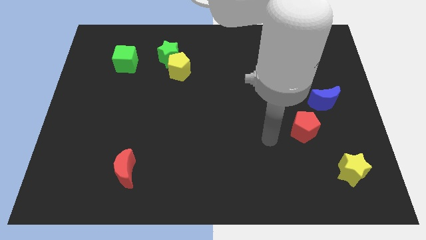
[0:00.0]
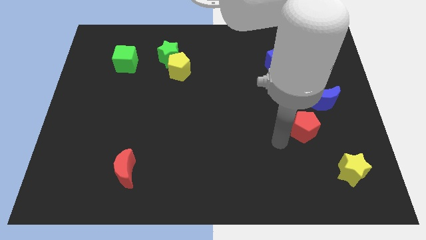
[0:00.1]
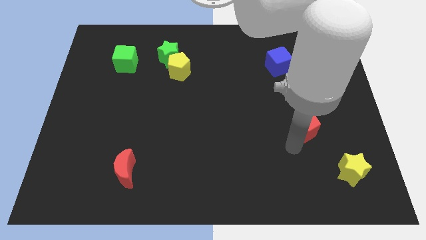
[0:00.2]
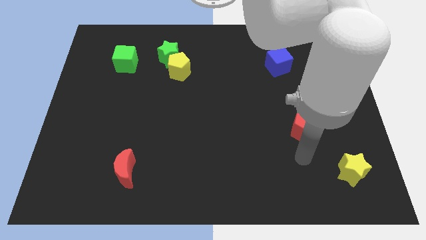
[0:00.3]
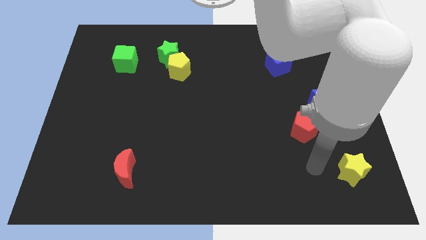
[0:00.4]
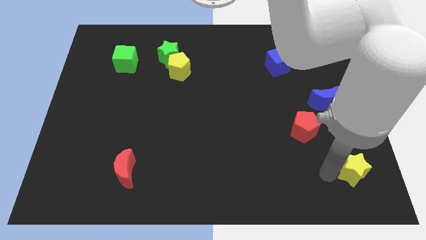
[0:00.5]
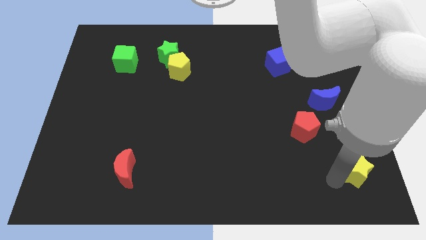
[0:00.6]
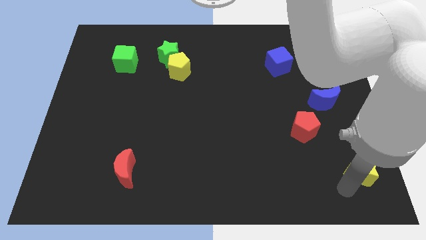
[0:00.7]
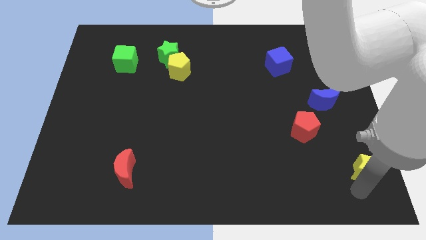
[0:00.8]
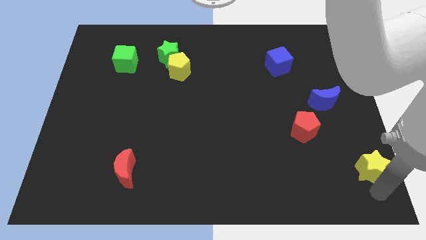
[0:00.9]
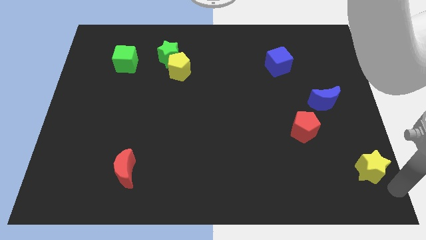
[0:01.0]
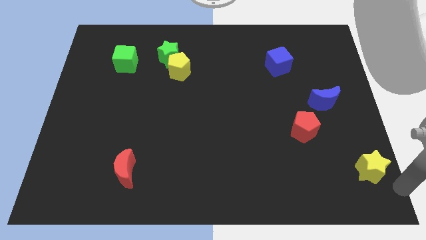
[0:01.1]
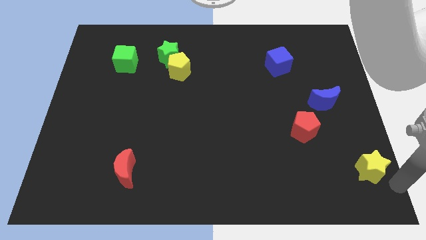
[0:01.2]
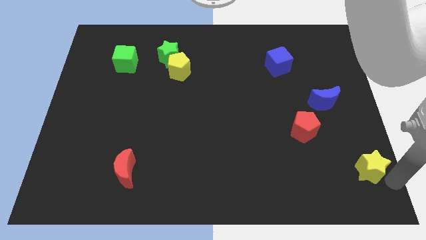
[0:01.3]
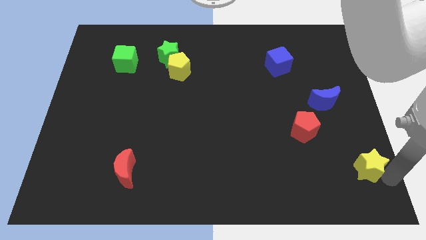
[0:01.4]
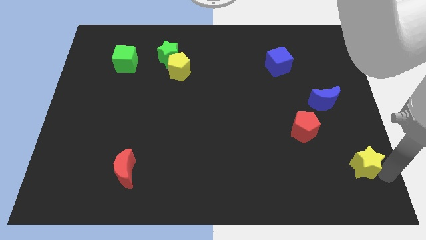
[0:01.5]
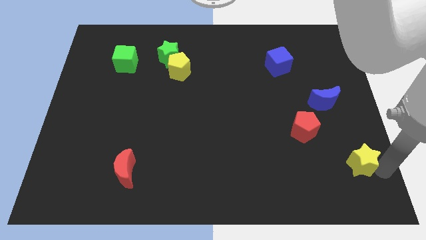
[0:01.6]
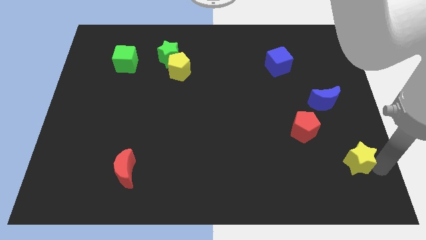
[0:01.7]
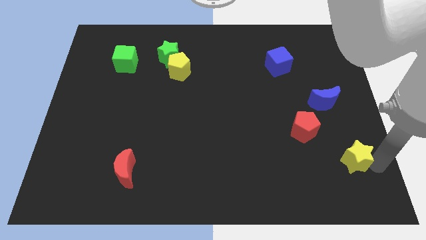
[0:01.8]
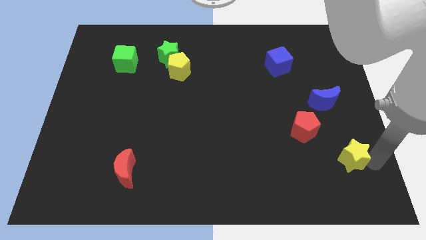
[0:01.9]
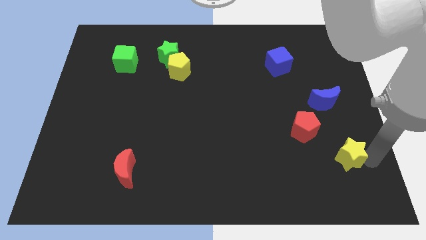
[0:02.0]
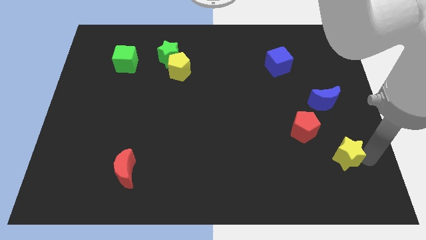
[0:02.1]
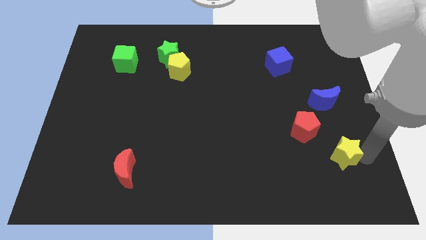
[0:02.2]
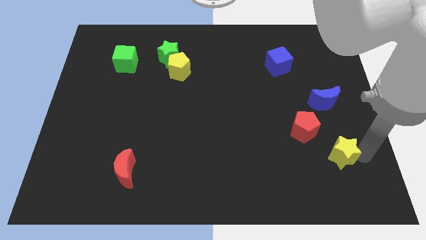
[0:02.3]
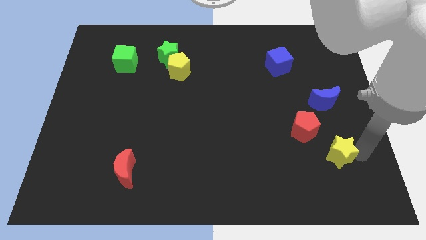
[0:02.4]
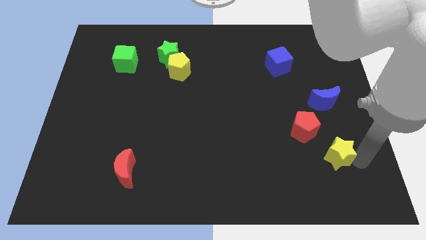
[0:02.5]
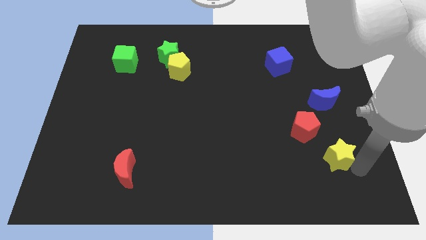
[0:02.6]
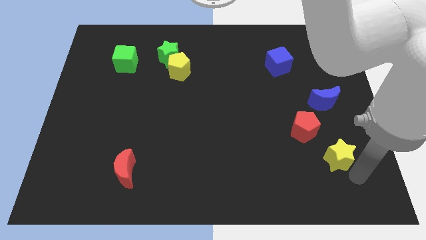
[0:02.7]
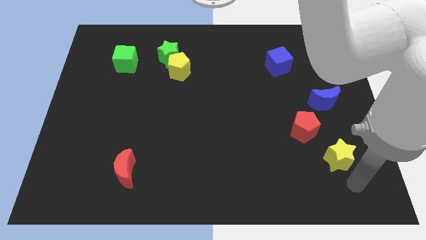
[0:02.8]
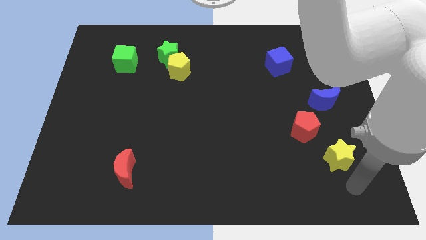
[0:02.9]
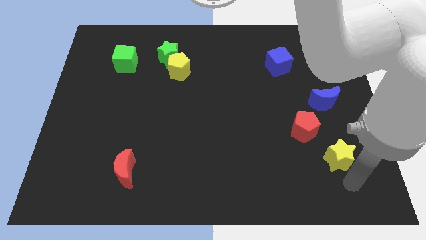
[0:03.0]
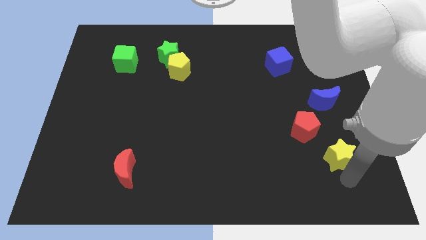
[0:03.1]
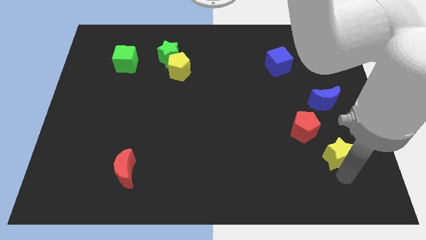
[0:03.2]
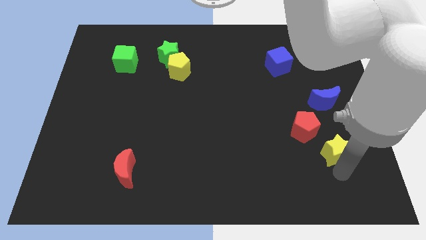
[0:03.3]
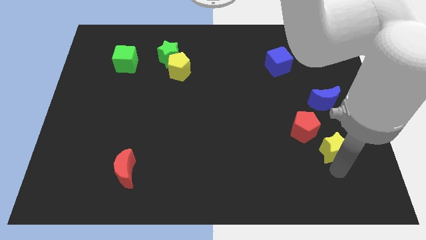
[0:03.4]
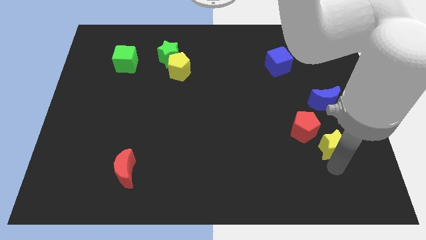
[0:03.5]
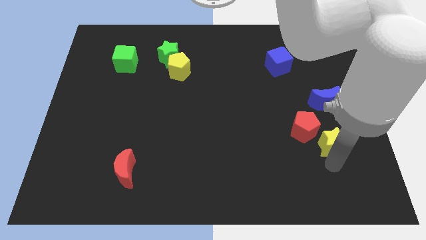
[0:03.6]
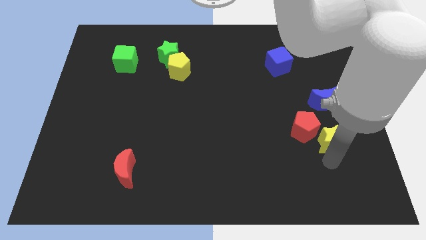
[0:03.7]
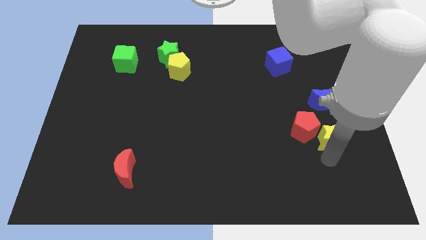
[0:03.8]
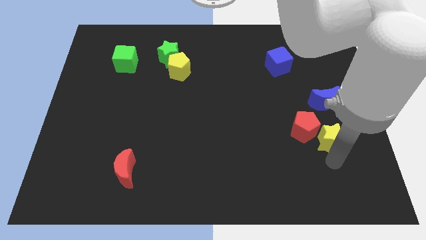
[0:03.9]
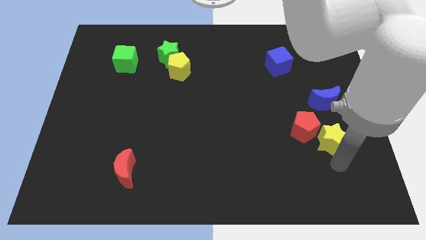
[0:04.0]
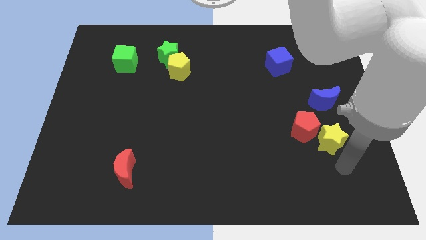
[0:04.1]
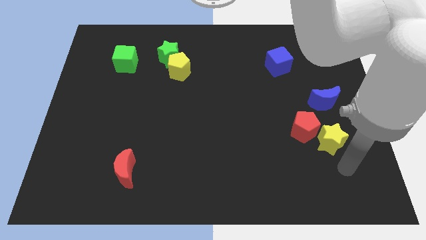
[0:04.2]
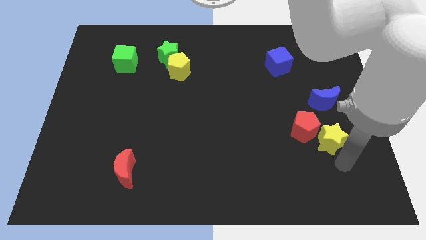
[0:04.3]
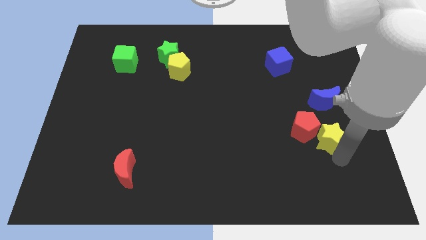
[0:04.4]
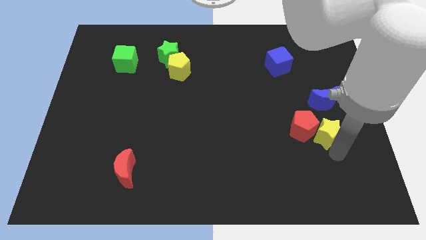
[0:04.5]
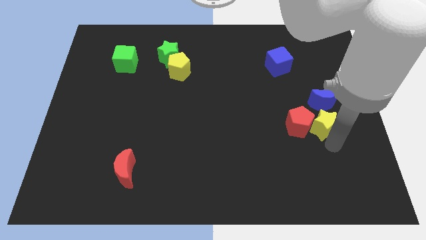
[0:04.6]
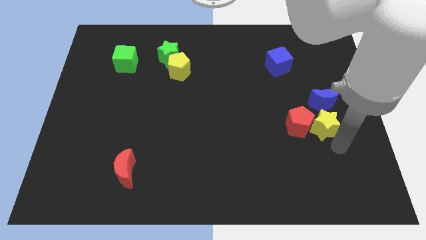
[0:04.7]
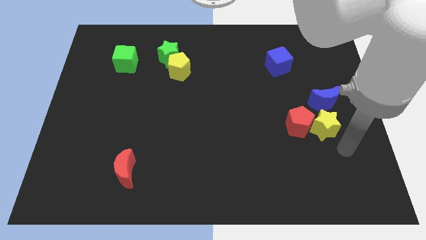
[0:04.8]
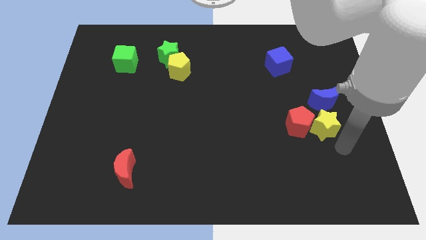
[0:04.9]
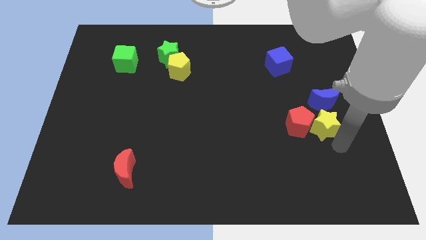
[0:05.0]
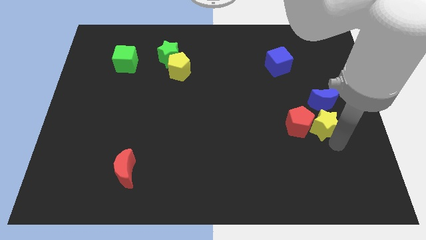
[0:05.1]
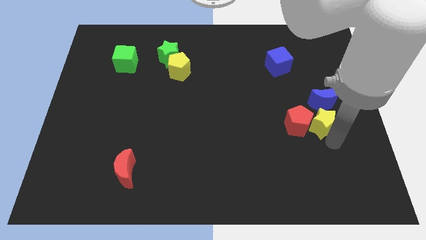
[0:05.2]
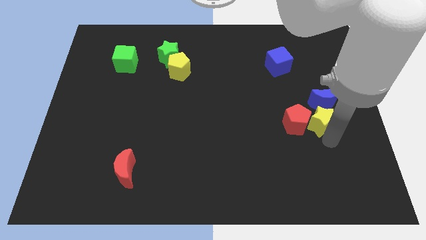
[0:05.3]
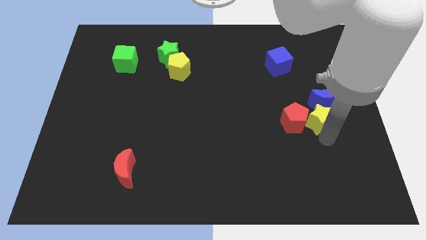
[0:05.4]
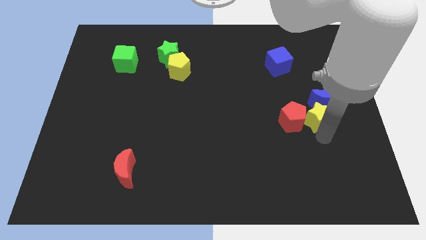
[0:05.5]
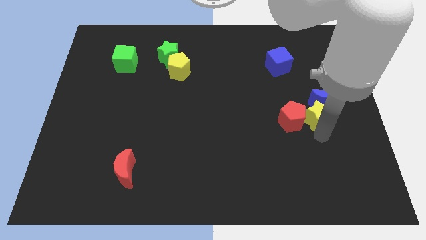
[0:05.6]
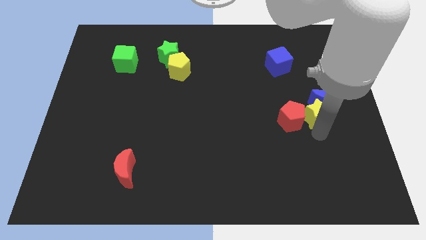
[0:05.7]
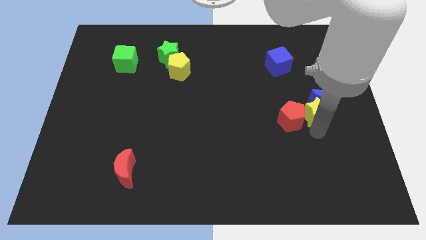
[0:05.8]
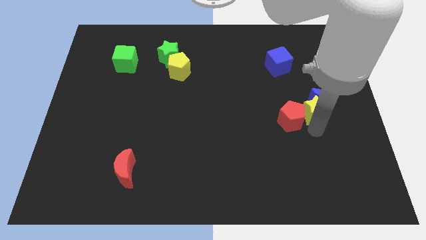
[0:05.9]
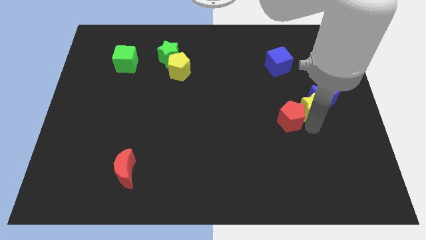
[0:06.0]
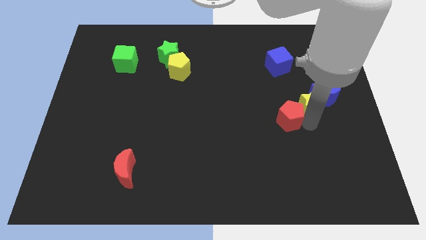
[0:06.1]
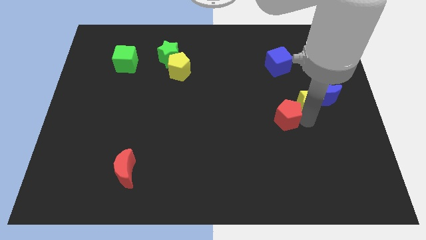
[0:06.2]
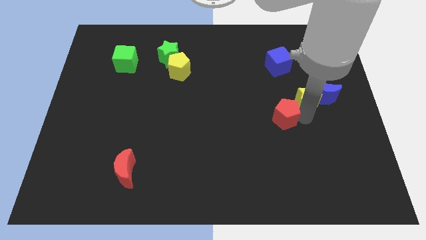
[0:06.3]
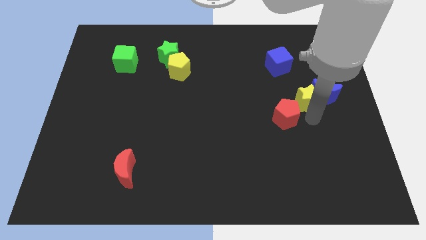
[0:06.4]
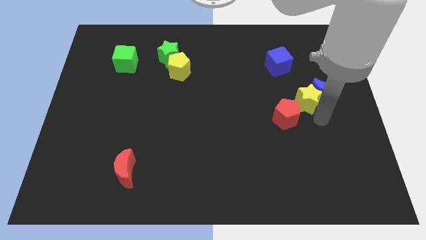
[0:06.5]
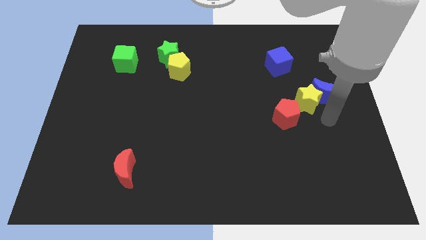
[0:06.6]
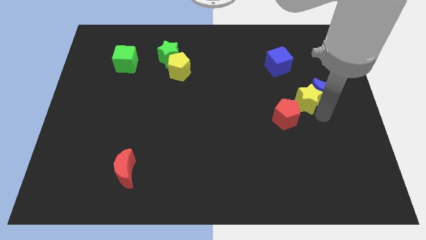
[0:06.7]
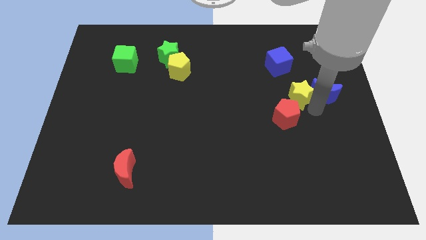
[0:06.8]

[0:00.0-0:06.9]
push the yellow star to the top side of the red pentagon
